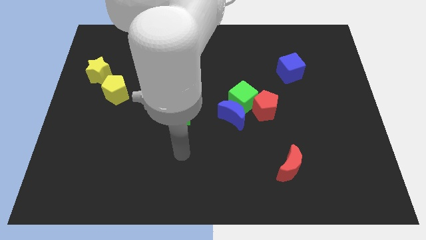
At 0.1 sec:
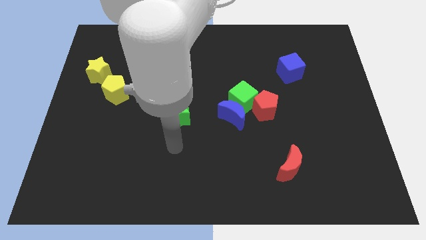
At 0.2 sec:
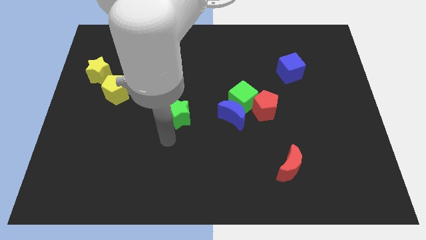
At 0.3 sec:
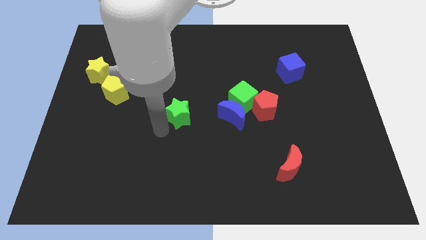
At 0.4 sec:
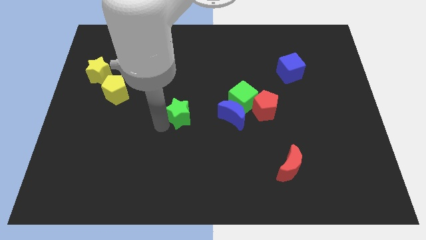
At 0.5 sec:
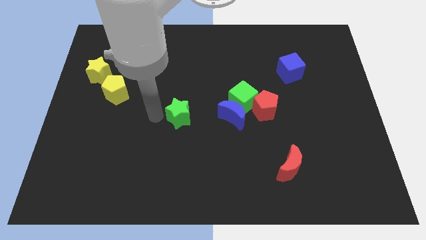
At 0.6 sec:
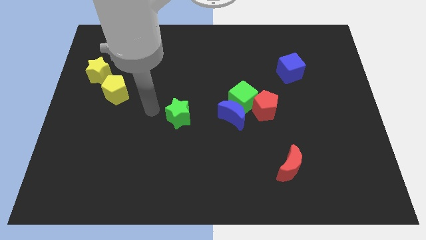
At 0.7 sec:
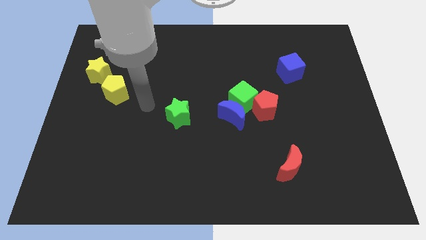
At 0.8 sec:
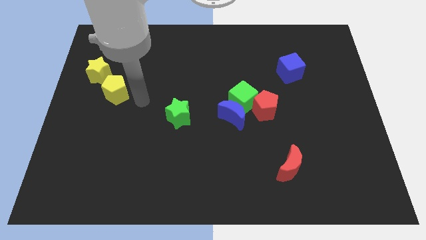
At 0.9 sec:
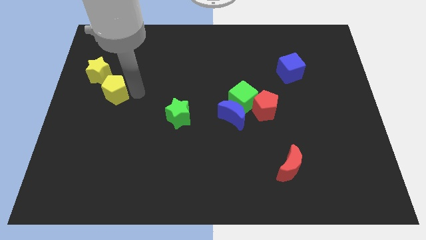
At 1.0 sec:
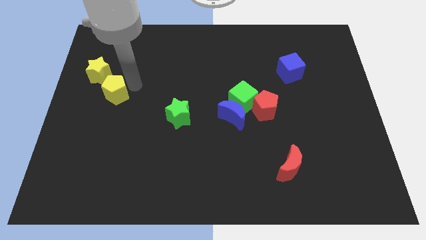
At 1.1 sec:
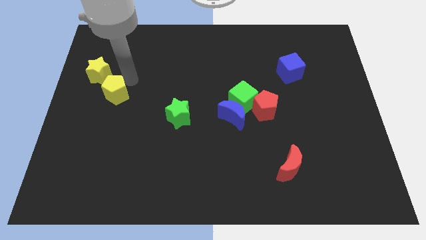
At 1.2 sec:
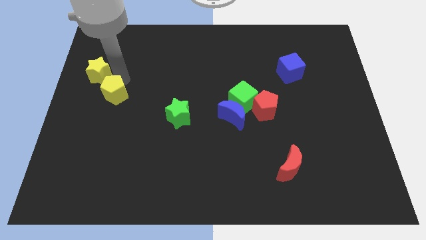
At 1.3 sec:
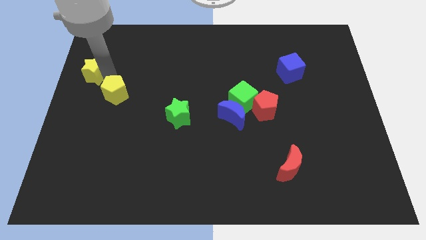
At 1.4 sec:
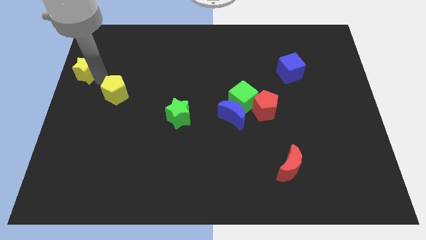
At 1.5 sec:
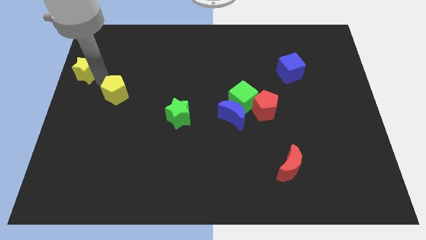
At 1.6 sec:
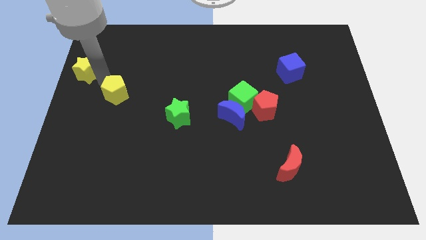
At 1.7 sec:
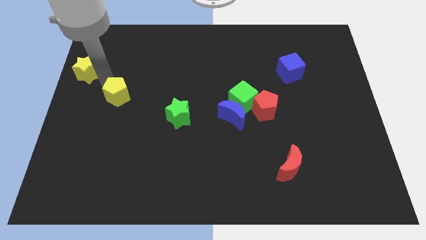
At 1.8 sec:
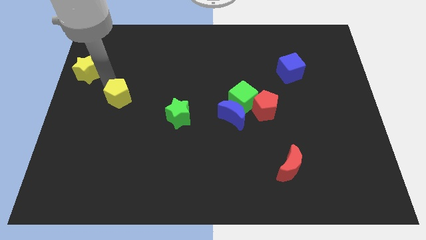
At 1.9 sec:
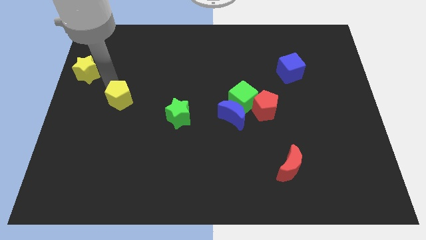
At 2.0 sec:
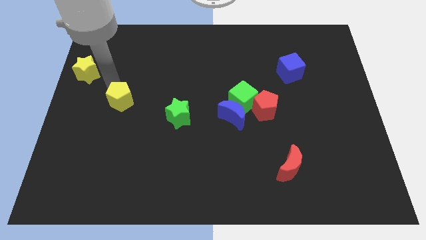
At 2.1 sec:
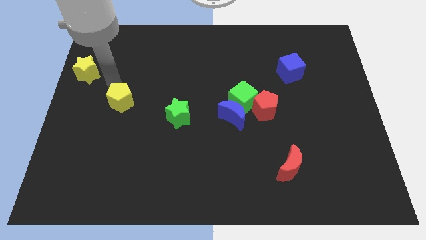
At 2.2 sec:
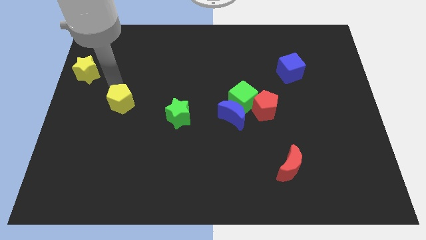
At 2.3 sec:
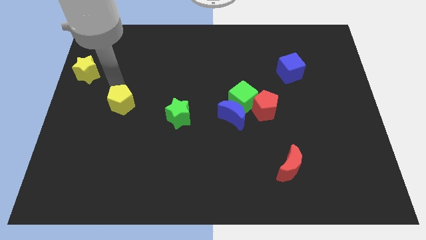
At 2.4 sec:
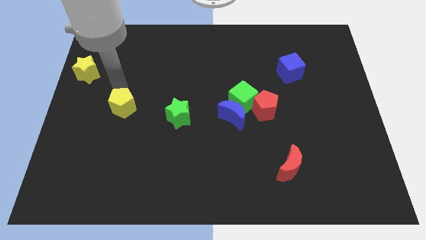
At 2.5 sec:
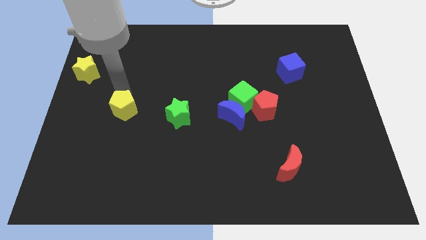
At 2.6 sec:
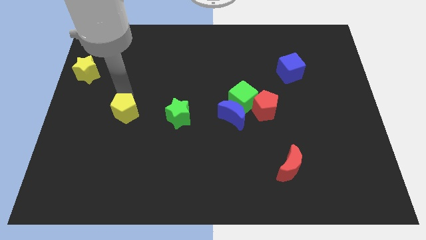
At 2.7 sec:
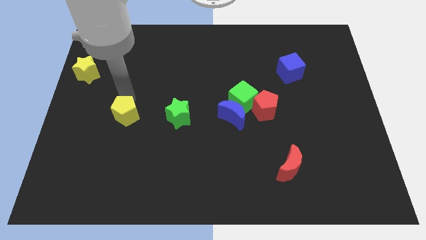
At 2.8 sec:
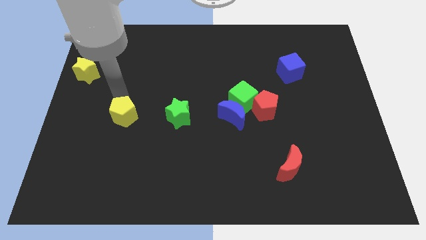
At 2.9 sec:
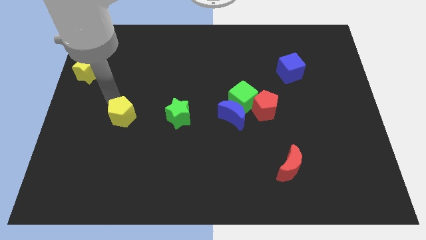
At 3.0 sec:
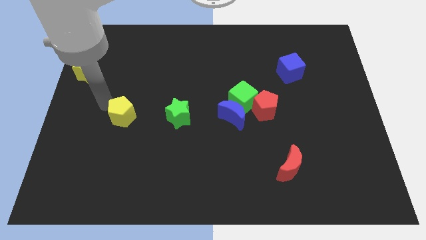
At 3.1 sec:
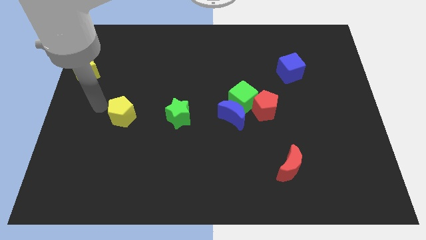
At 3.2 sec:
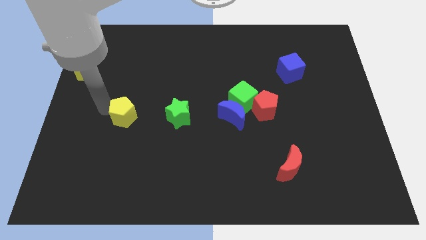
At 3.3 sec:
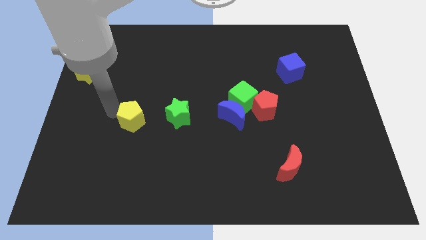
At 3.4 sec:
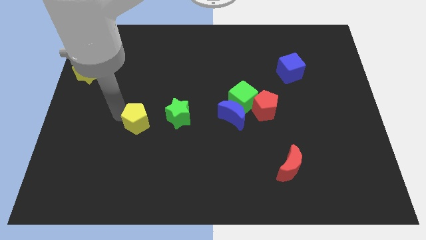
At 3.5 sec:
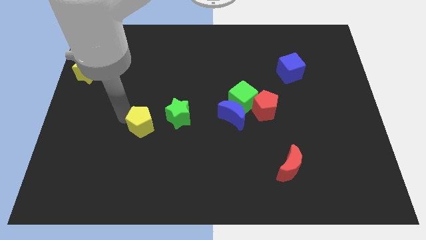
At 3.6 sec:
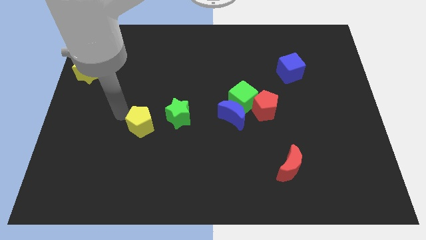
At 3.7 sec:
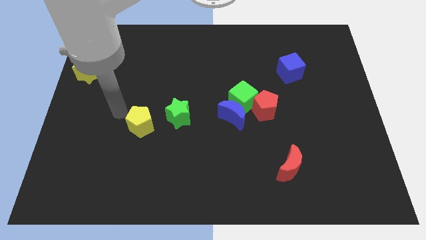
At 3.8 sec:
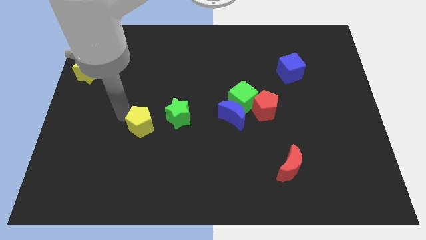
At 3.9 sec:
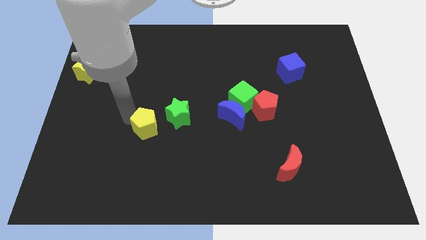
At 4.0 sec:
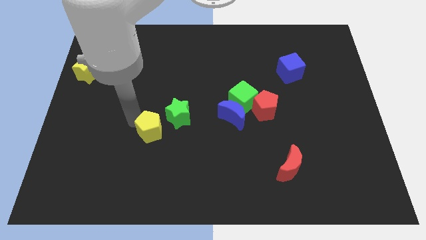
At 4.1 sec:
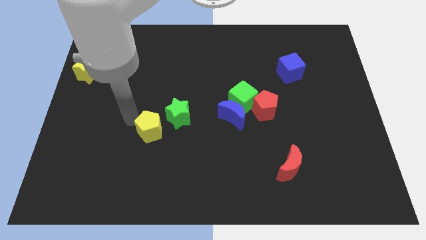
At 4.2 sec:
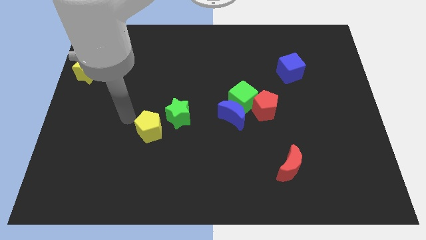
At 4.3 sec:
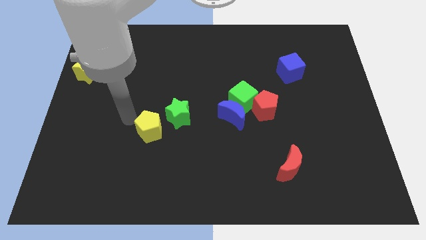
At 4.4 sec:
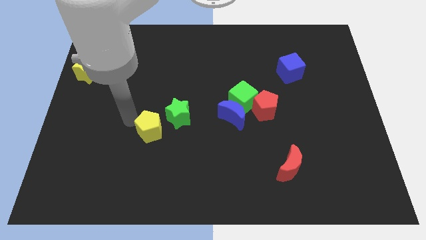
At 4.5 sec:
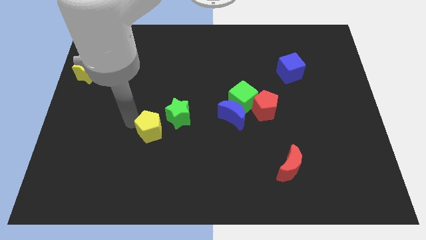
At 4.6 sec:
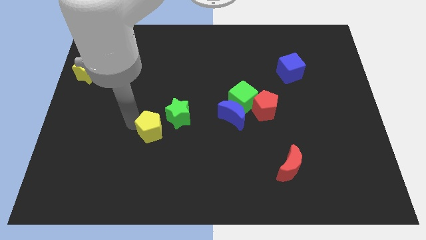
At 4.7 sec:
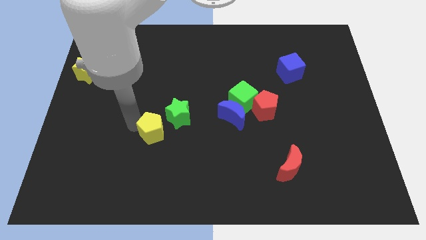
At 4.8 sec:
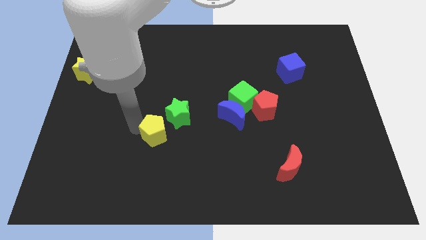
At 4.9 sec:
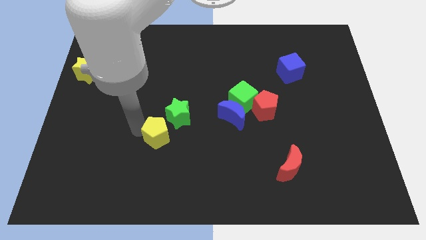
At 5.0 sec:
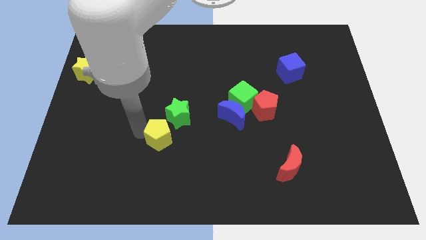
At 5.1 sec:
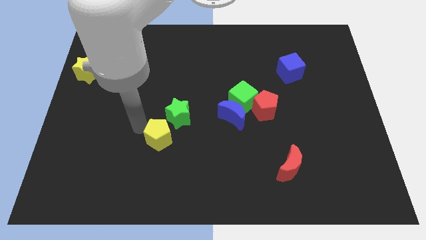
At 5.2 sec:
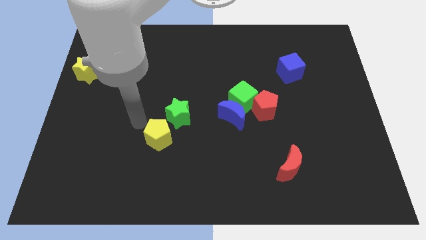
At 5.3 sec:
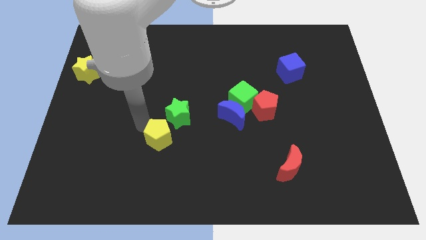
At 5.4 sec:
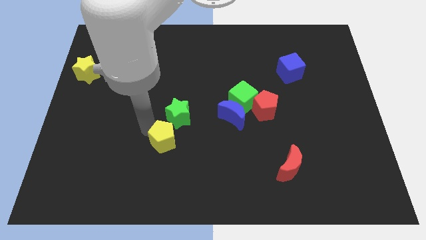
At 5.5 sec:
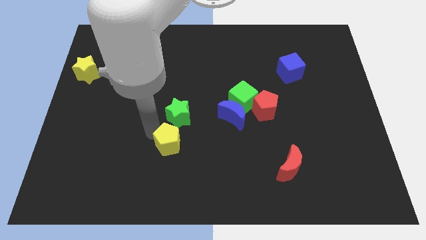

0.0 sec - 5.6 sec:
push the yellow pentagon diagonally down and to the right

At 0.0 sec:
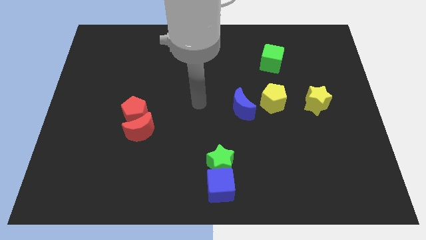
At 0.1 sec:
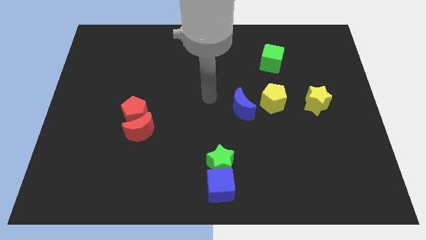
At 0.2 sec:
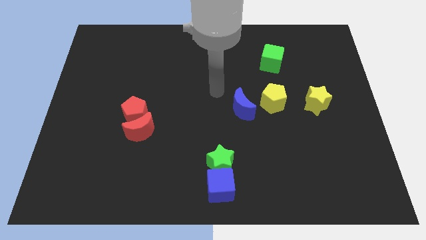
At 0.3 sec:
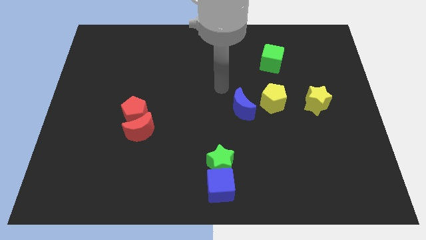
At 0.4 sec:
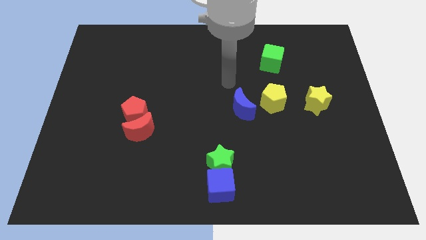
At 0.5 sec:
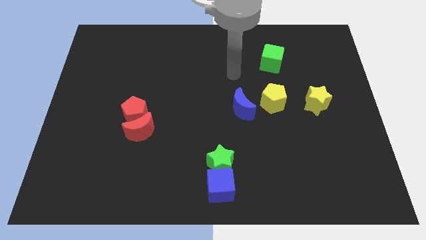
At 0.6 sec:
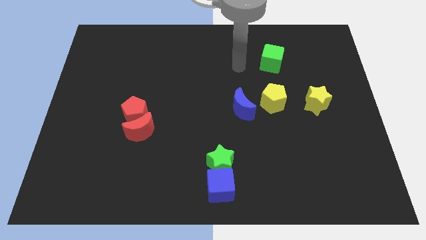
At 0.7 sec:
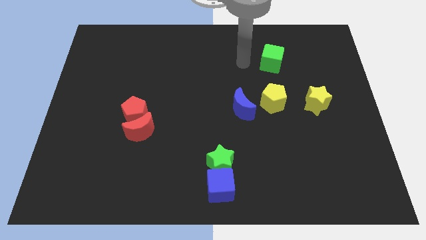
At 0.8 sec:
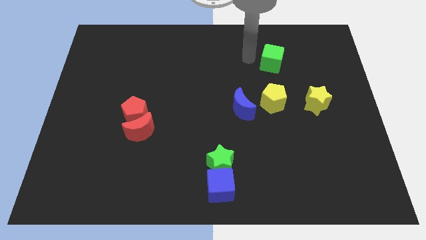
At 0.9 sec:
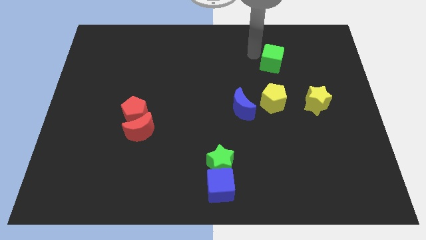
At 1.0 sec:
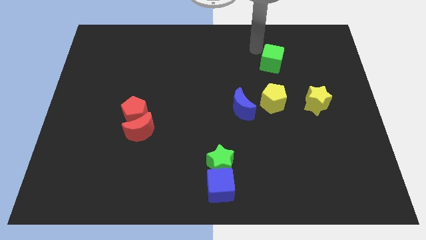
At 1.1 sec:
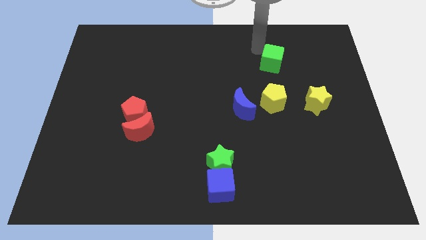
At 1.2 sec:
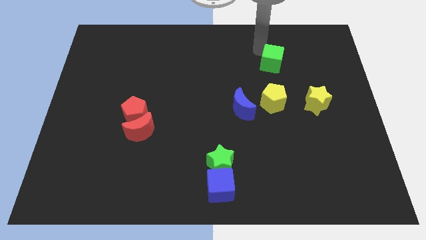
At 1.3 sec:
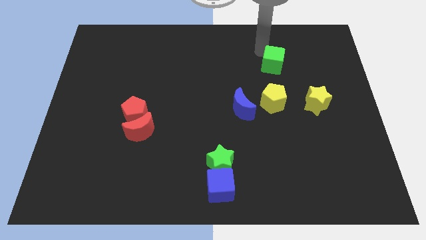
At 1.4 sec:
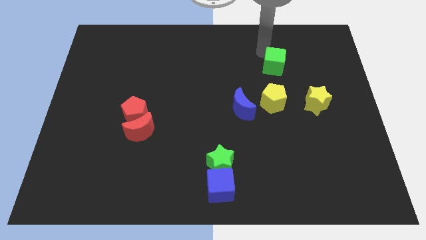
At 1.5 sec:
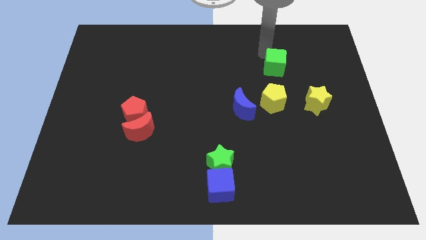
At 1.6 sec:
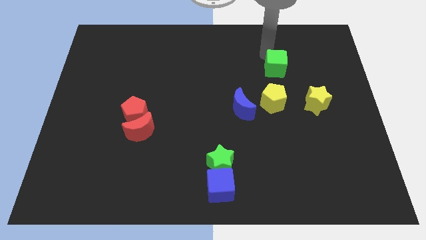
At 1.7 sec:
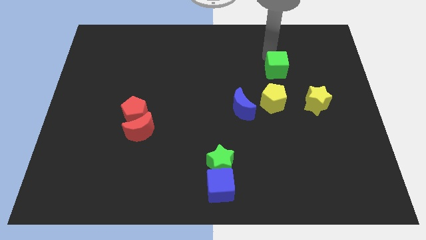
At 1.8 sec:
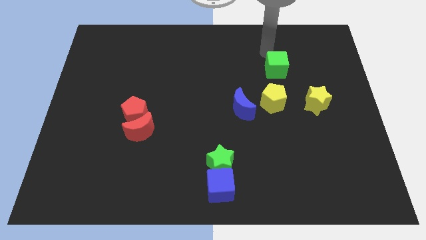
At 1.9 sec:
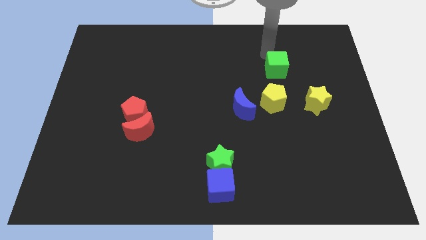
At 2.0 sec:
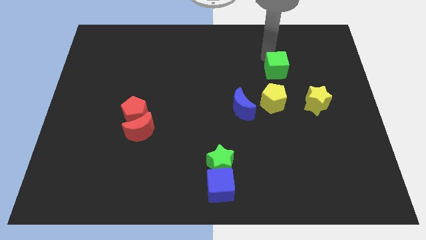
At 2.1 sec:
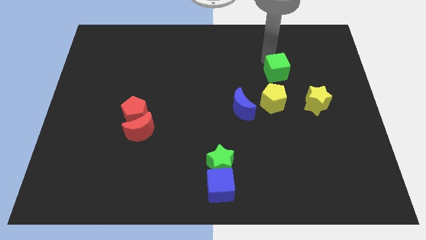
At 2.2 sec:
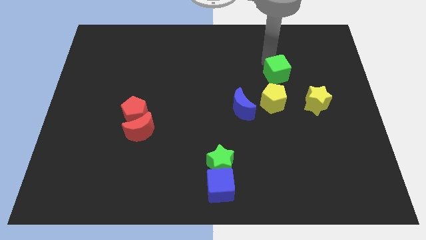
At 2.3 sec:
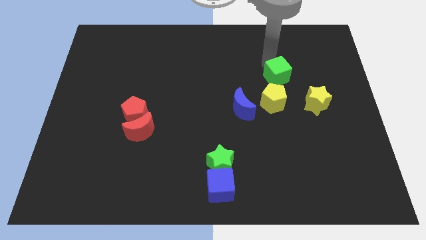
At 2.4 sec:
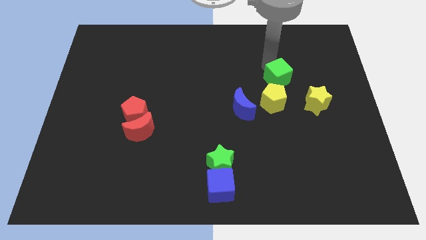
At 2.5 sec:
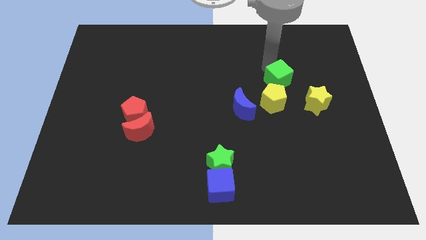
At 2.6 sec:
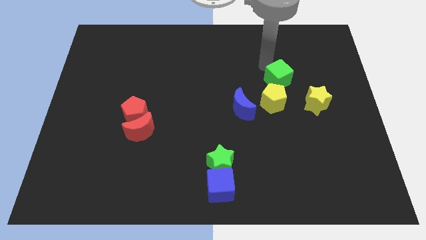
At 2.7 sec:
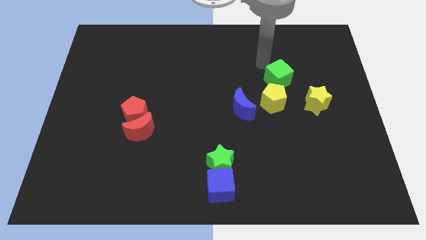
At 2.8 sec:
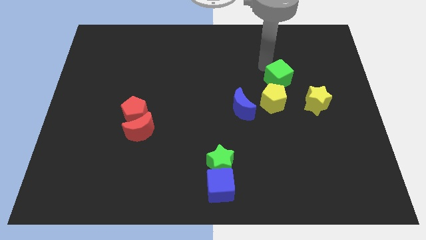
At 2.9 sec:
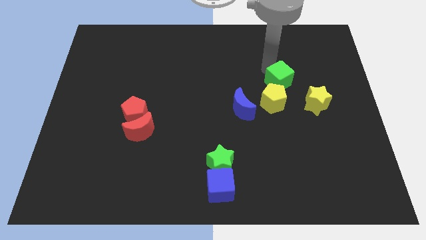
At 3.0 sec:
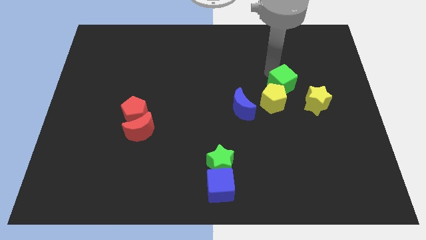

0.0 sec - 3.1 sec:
slightly slide the green cube down
